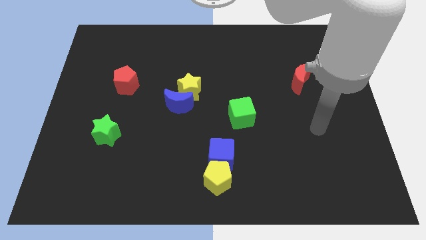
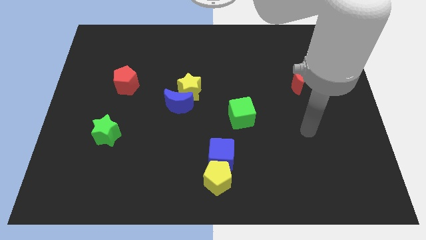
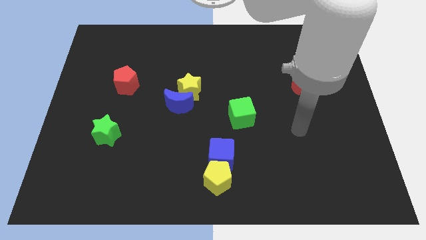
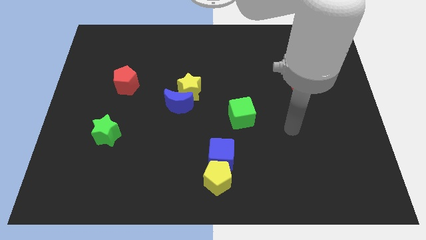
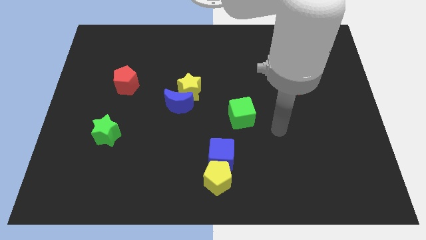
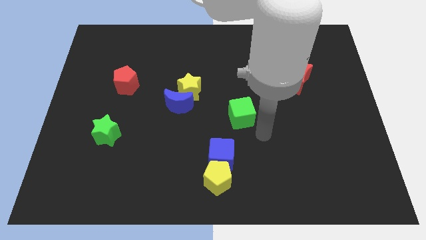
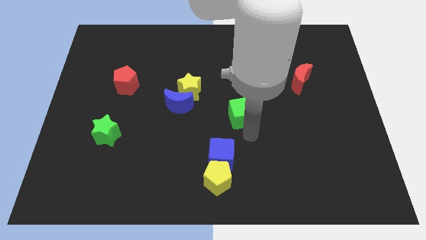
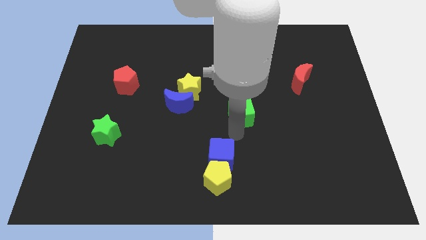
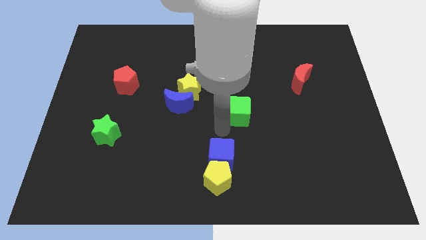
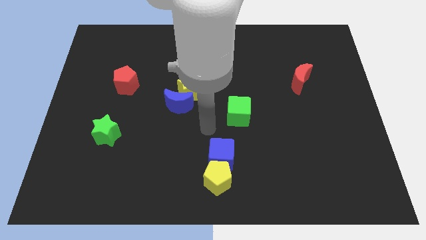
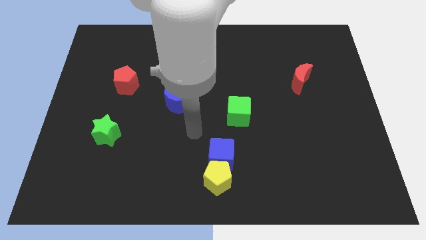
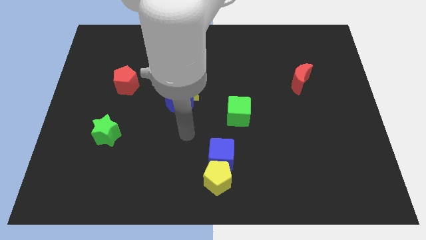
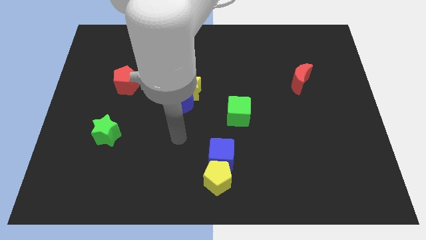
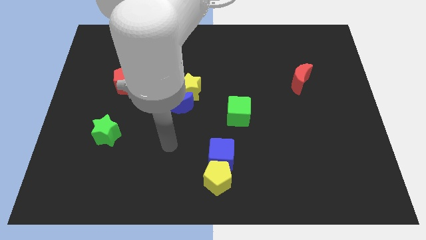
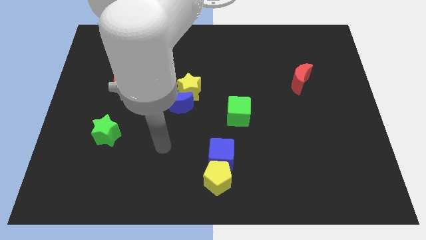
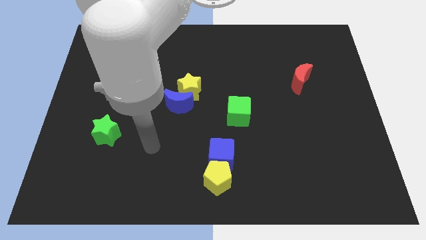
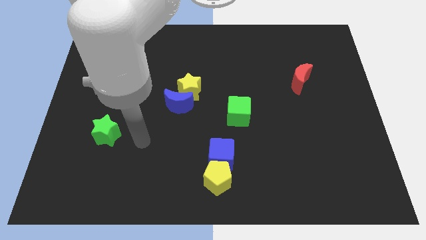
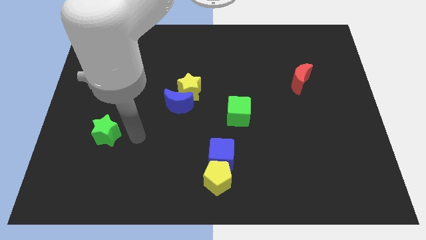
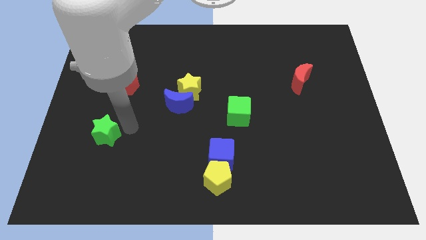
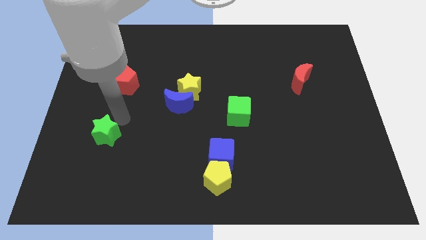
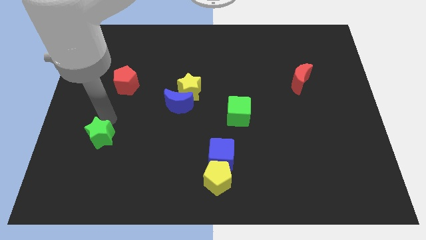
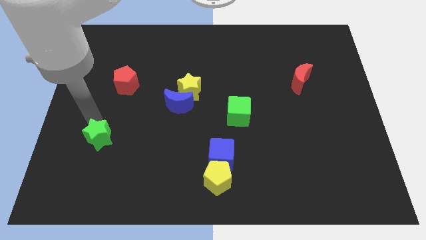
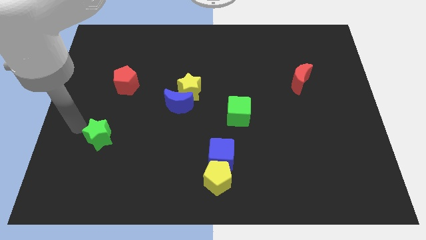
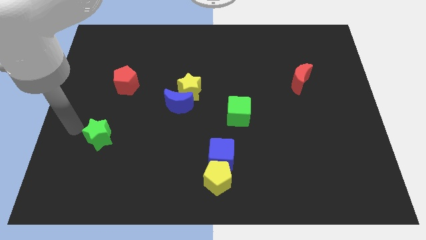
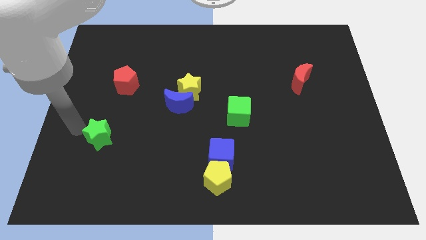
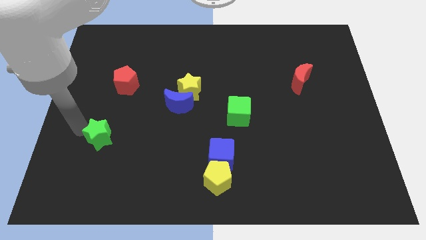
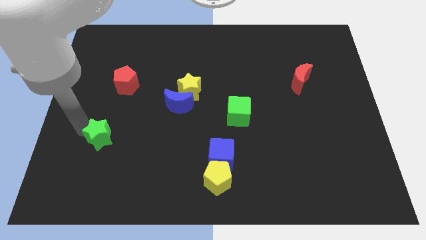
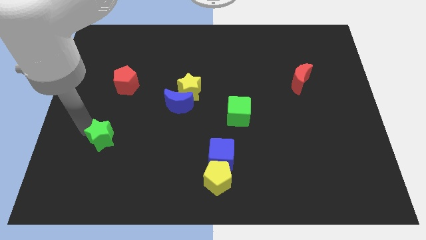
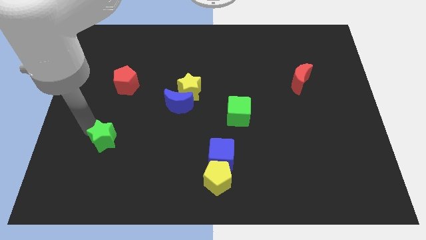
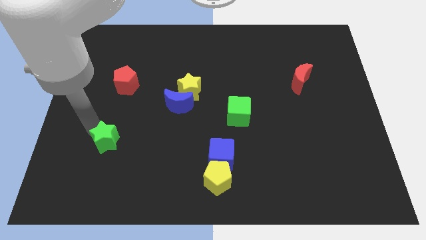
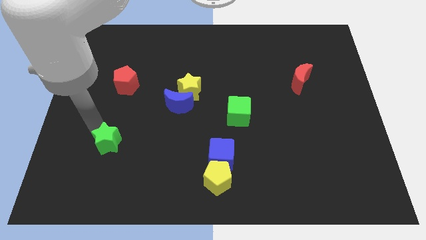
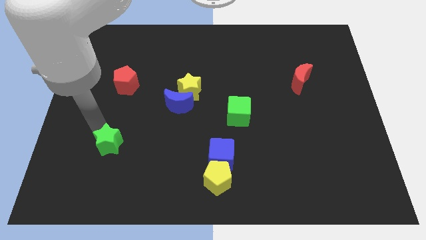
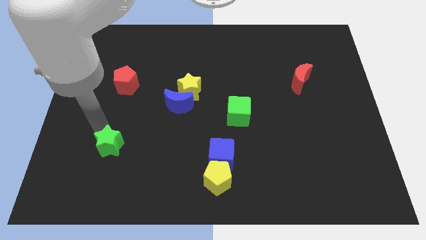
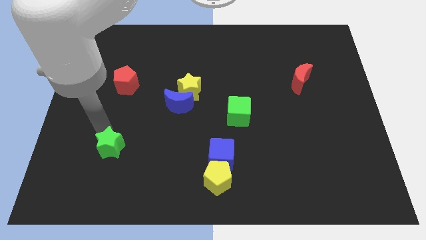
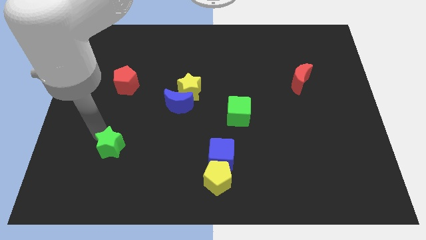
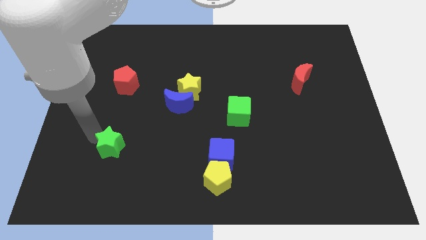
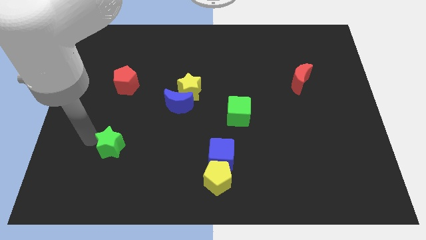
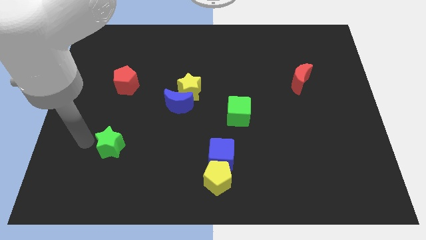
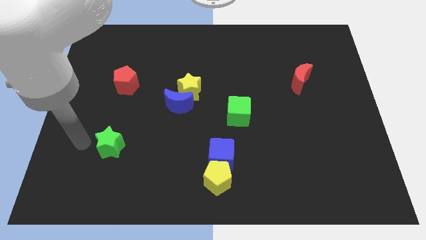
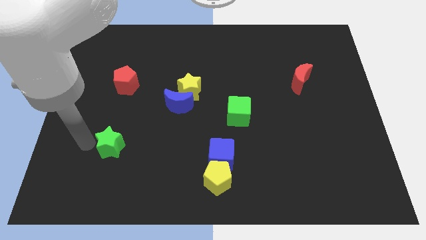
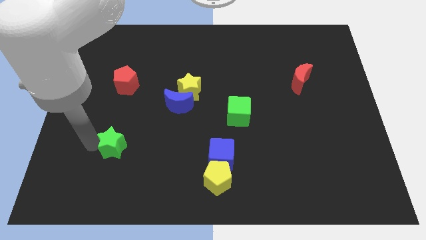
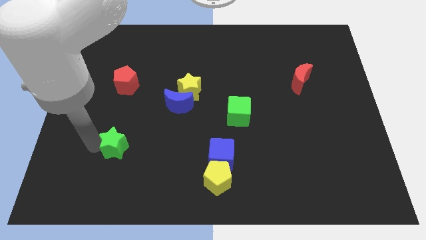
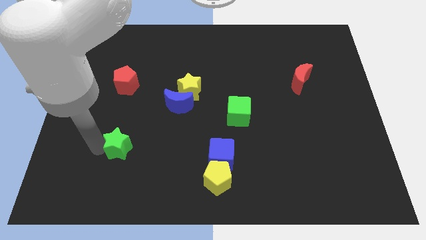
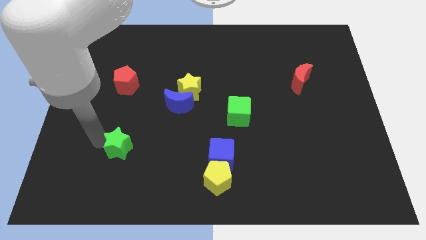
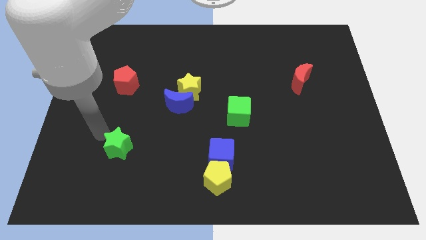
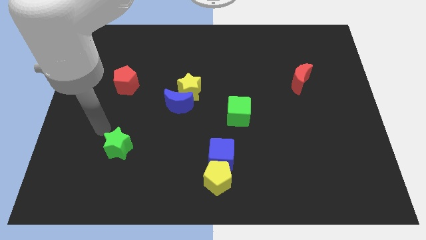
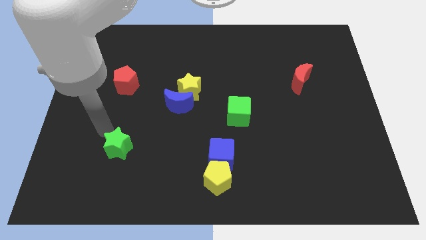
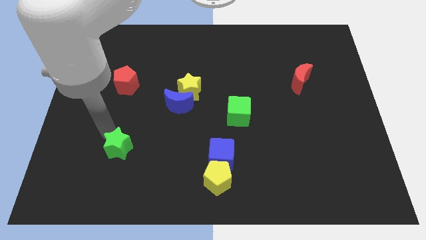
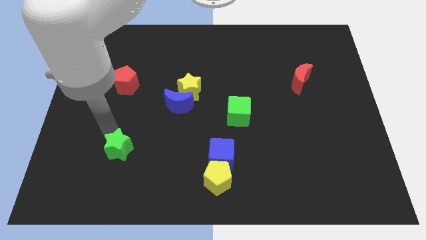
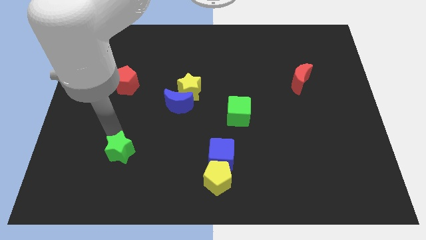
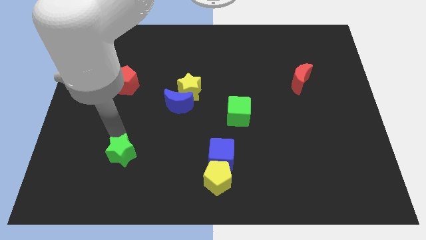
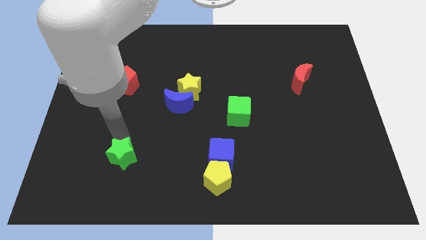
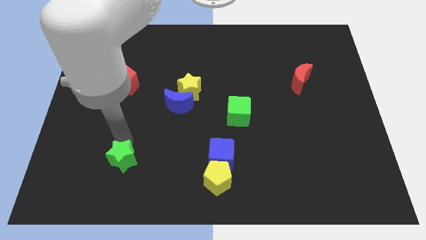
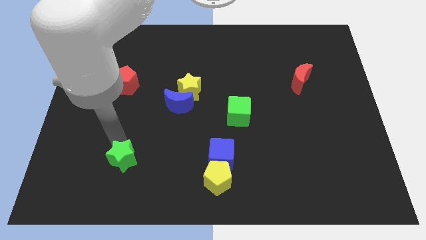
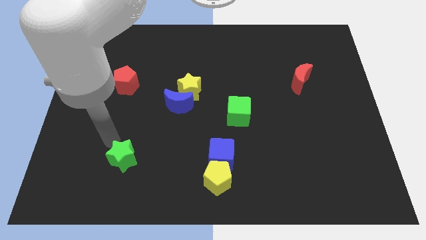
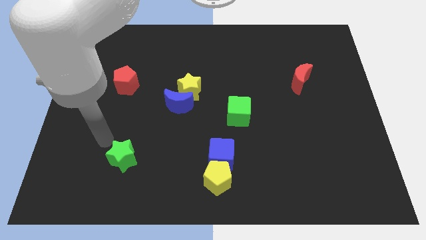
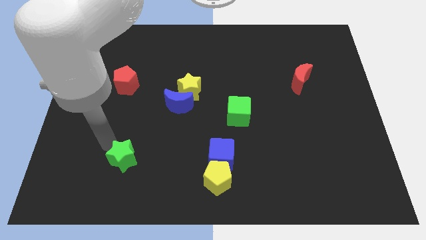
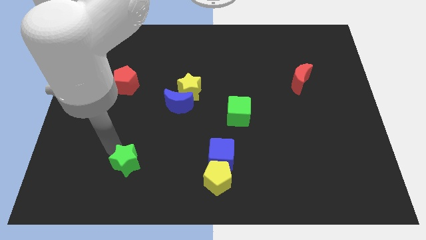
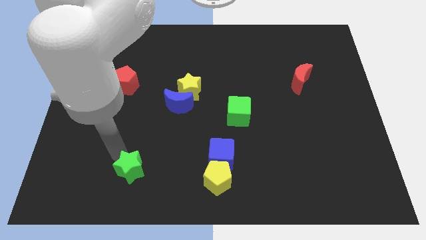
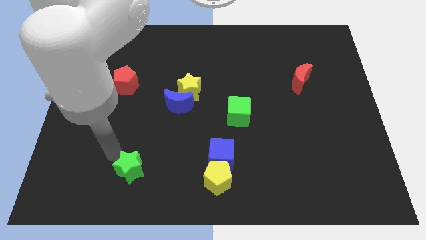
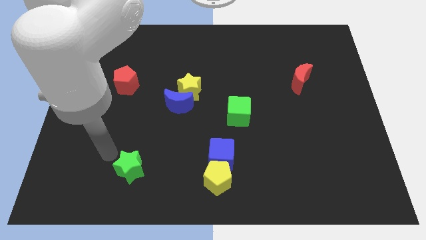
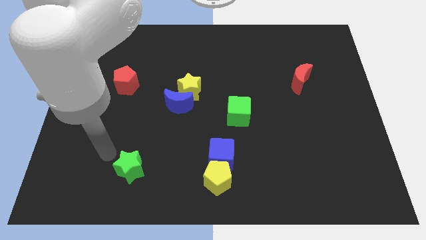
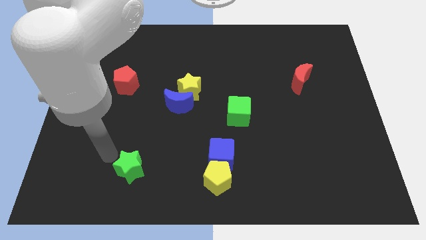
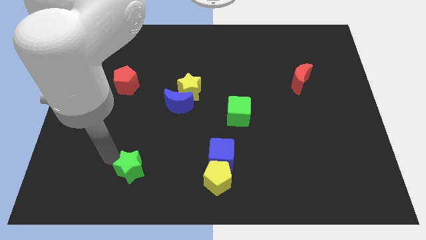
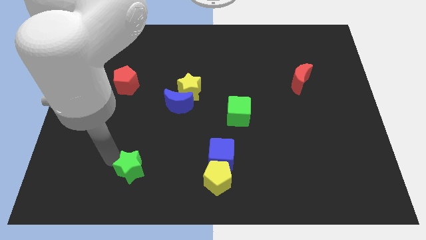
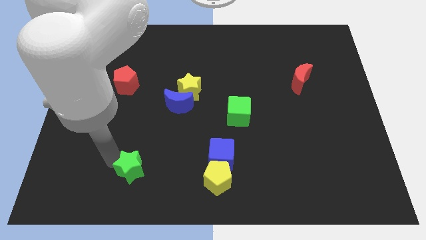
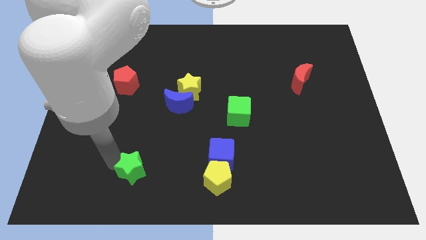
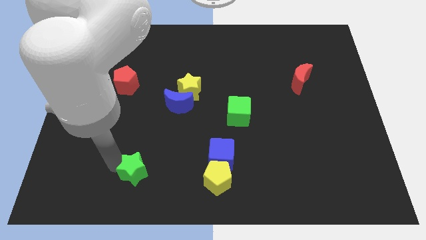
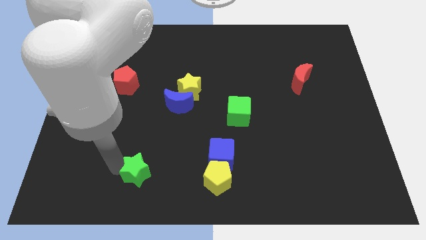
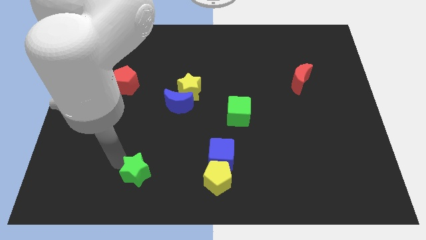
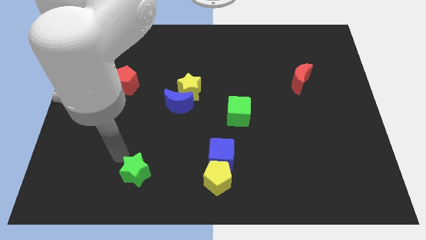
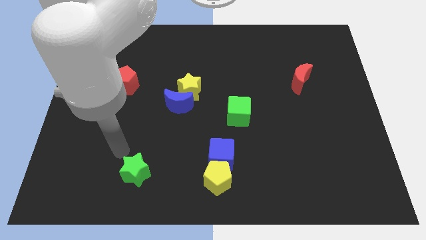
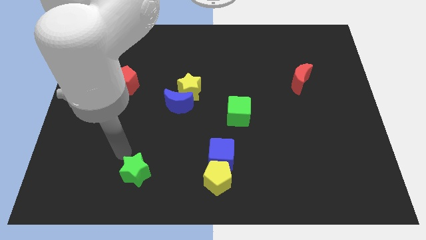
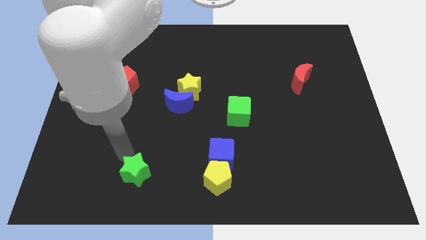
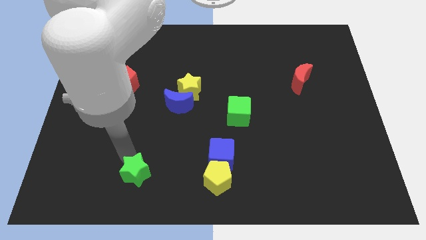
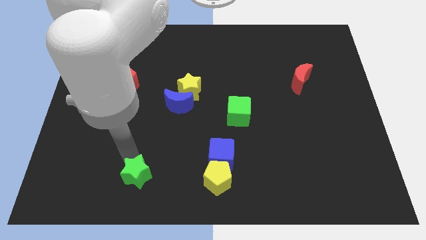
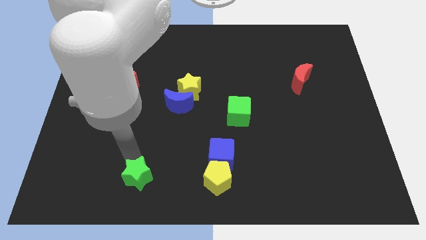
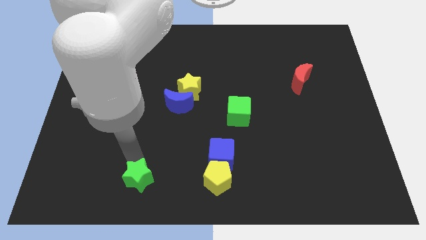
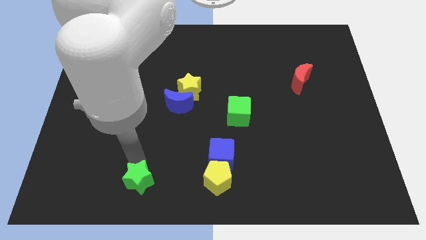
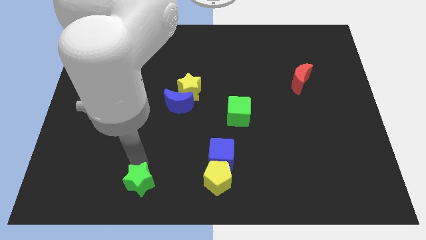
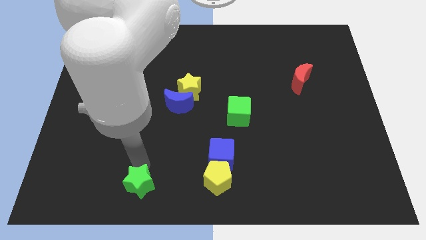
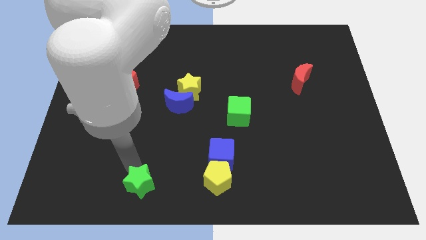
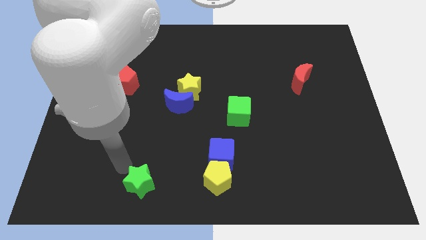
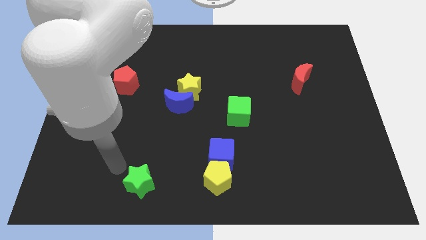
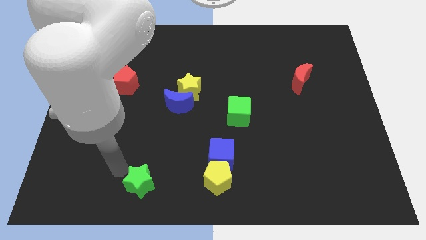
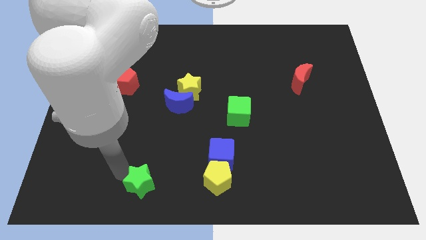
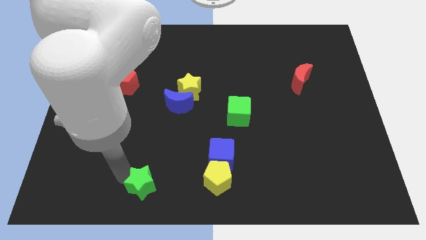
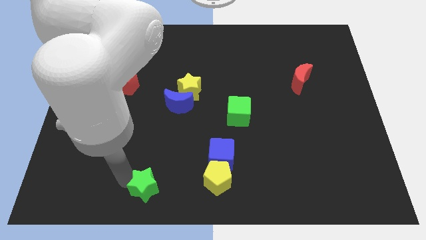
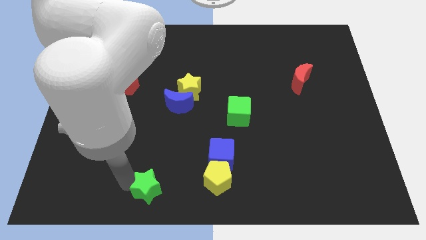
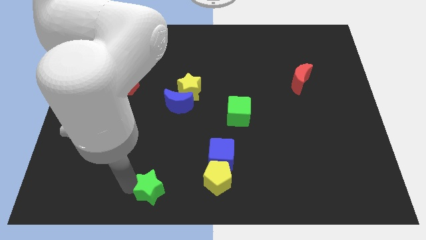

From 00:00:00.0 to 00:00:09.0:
push the green star to the bottom side
